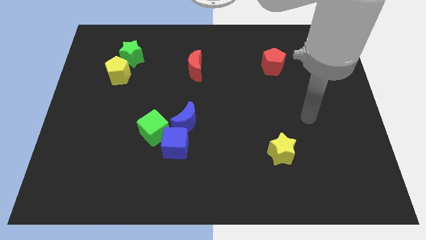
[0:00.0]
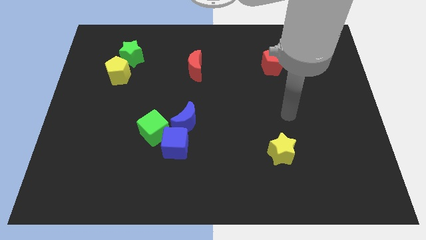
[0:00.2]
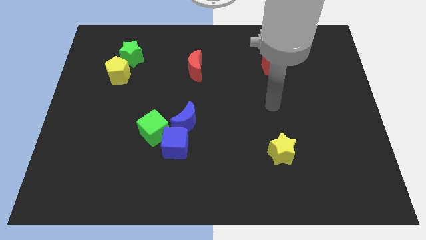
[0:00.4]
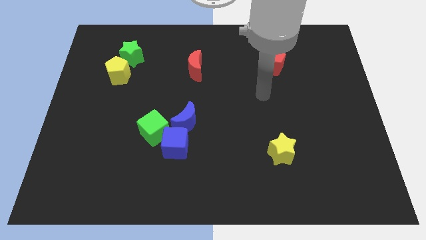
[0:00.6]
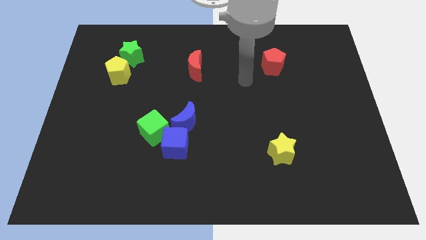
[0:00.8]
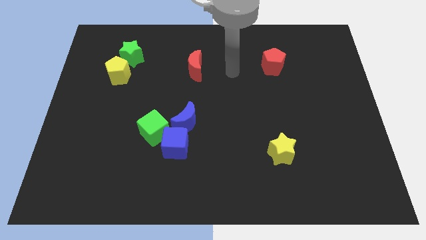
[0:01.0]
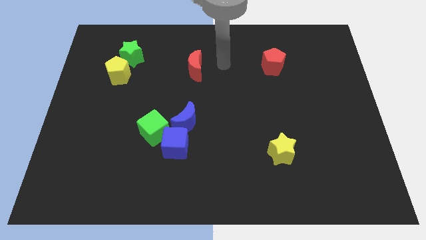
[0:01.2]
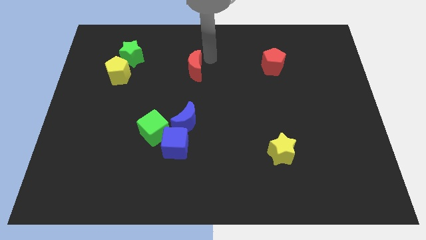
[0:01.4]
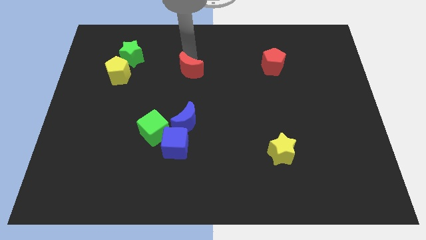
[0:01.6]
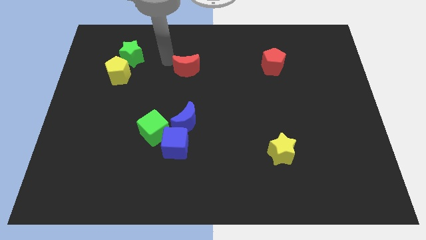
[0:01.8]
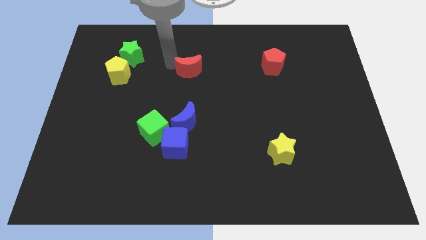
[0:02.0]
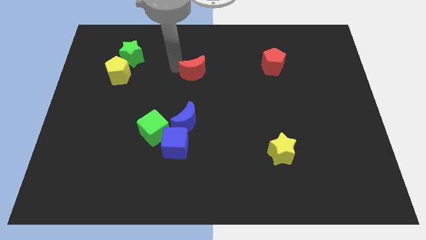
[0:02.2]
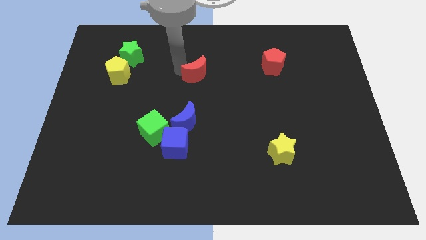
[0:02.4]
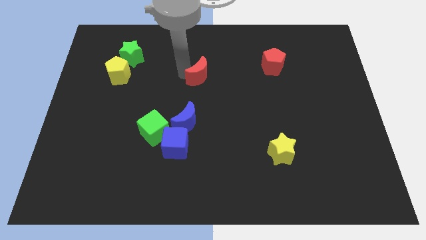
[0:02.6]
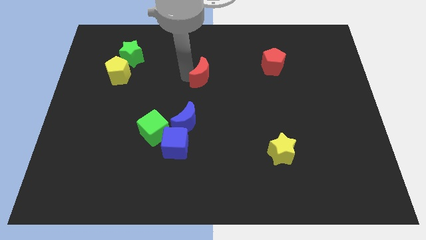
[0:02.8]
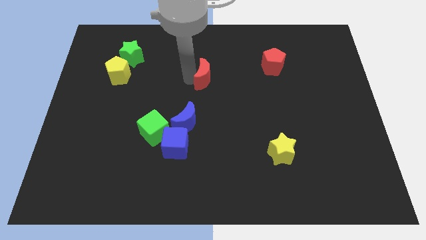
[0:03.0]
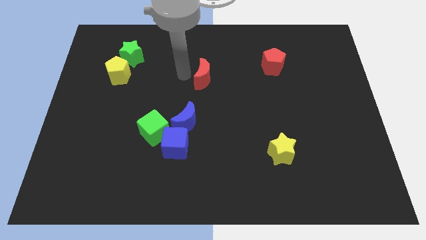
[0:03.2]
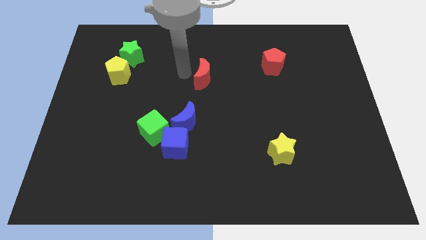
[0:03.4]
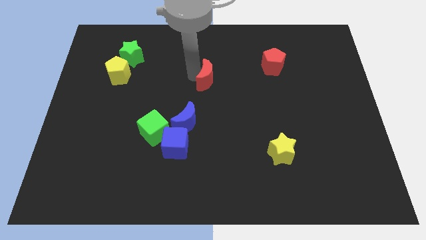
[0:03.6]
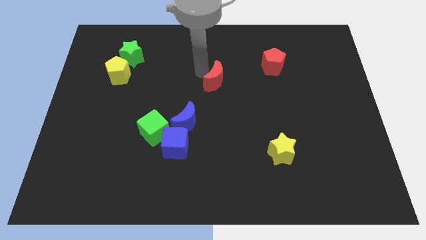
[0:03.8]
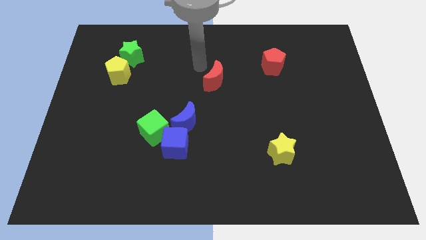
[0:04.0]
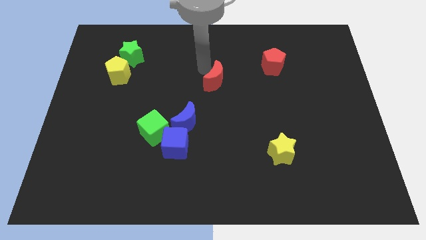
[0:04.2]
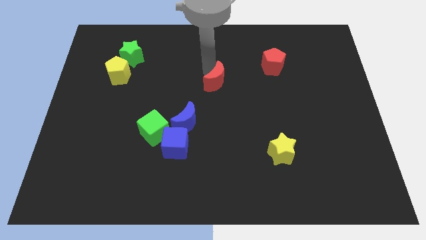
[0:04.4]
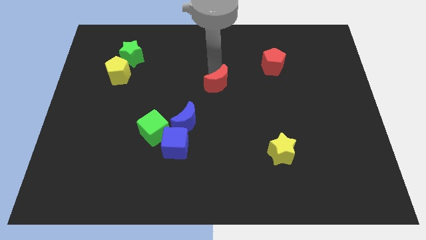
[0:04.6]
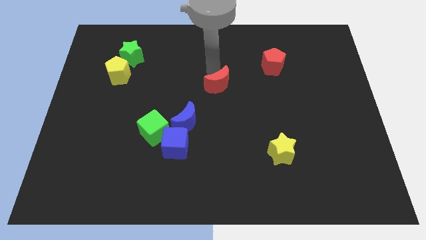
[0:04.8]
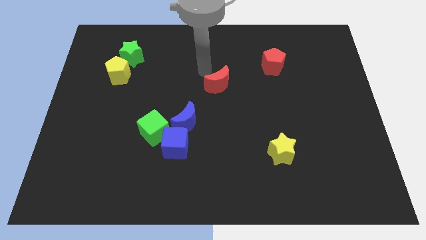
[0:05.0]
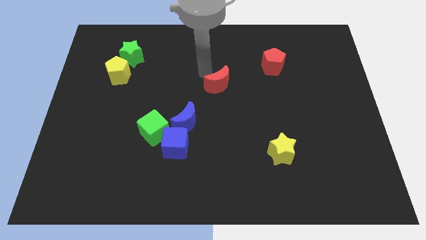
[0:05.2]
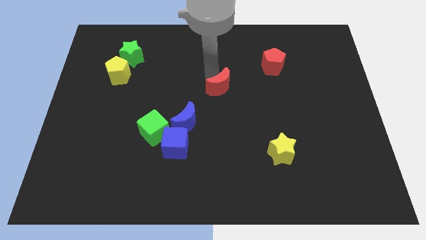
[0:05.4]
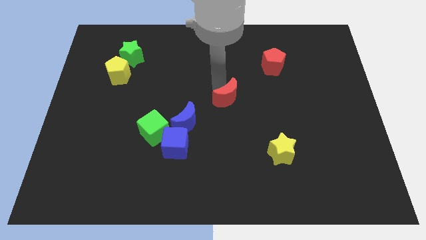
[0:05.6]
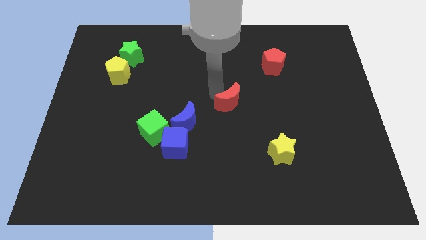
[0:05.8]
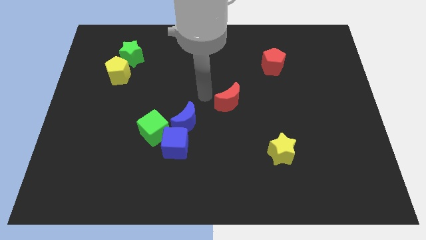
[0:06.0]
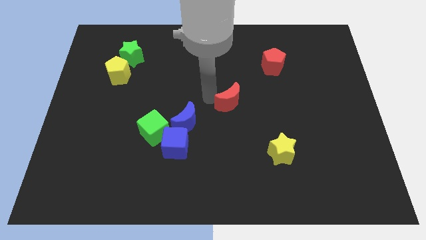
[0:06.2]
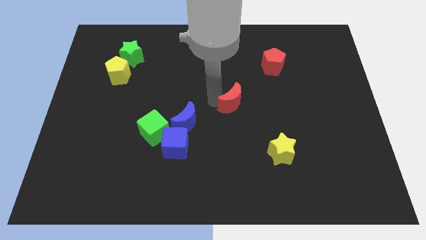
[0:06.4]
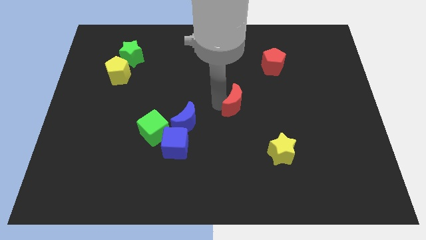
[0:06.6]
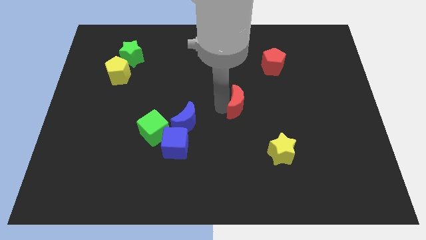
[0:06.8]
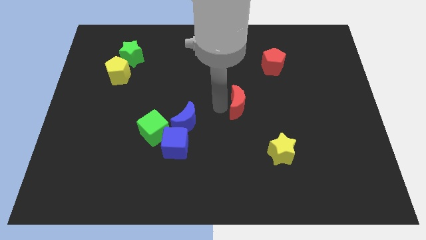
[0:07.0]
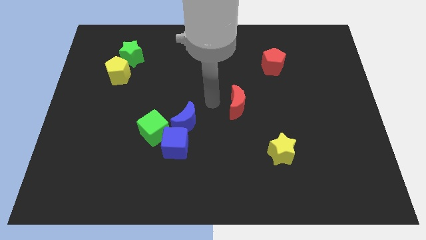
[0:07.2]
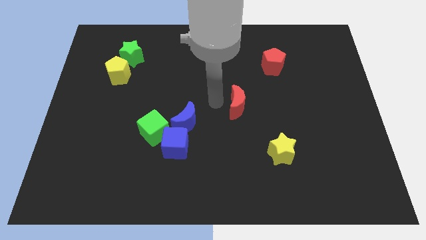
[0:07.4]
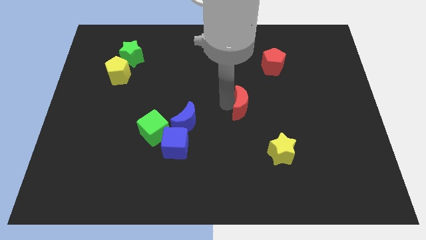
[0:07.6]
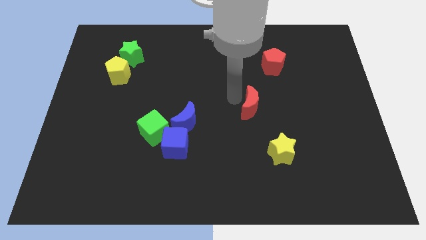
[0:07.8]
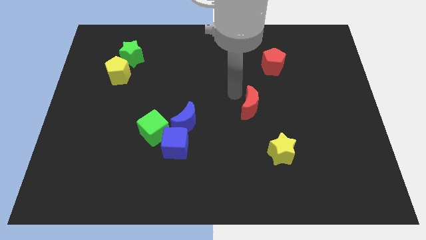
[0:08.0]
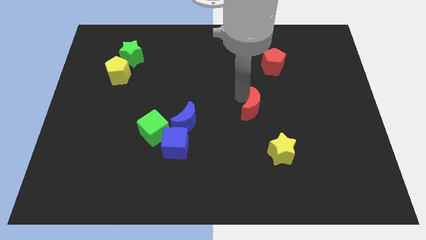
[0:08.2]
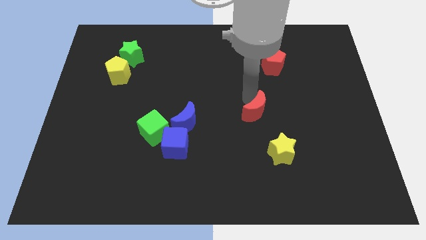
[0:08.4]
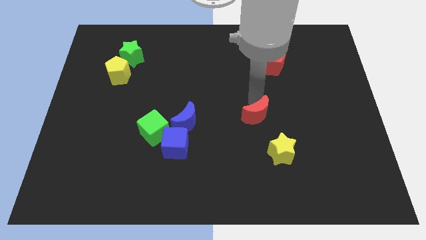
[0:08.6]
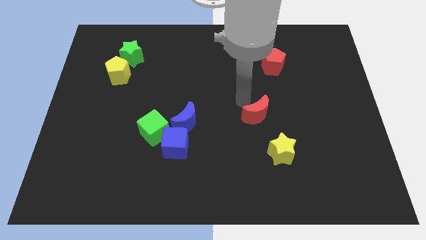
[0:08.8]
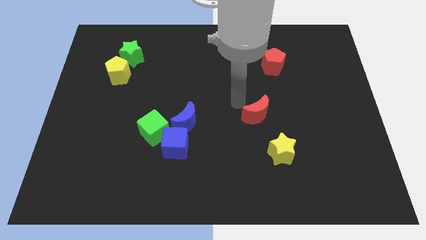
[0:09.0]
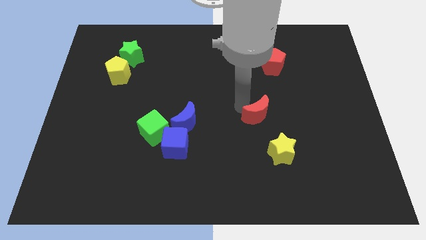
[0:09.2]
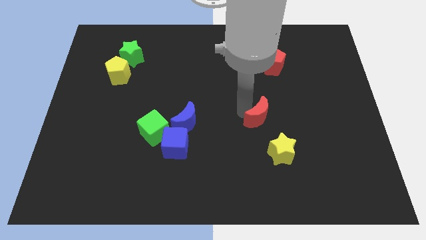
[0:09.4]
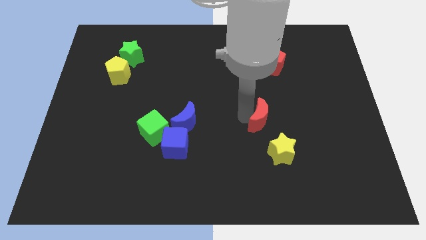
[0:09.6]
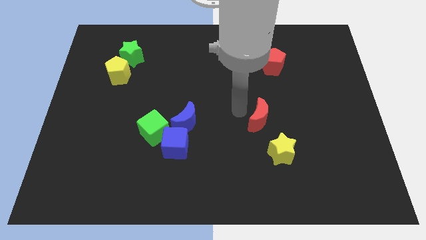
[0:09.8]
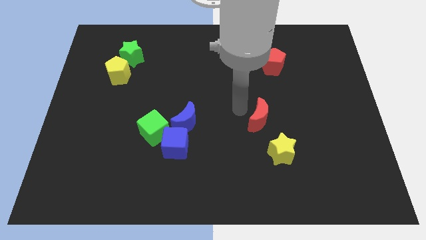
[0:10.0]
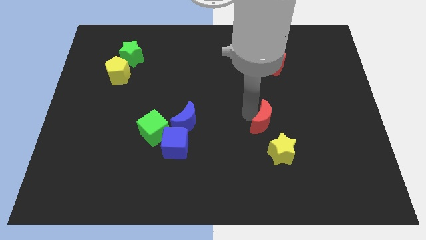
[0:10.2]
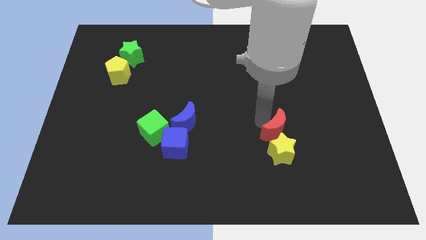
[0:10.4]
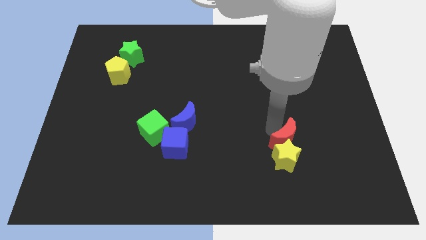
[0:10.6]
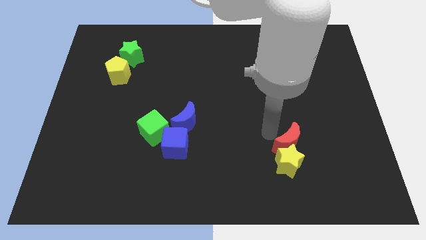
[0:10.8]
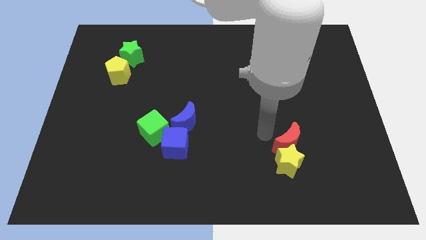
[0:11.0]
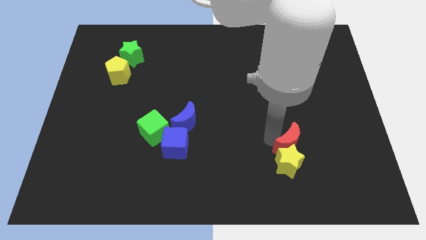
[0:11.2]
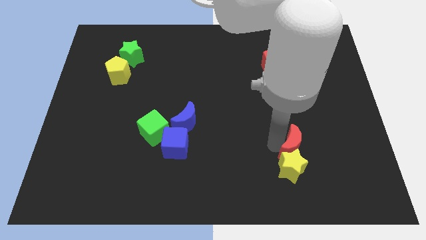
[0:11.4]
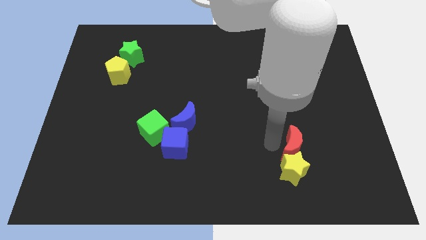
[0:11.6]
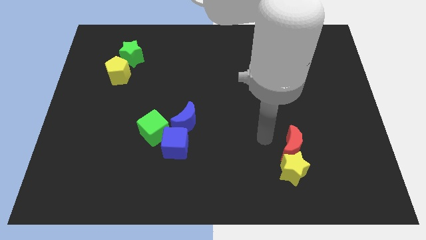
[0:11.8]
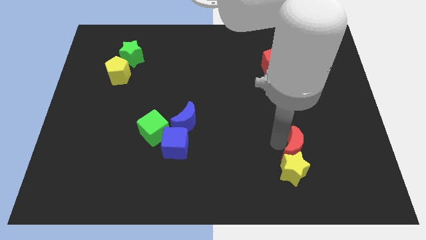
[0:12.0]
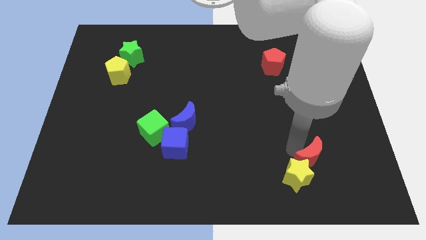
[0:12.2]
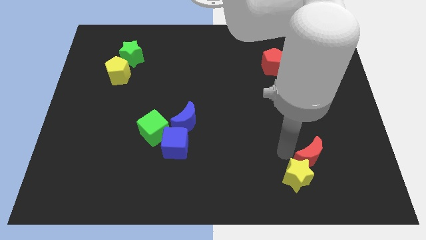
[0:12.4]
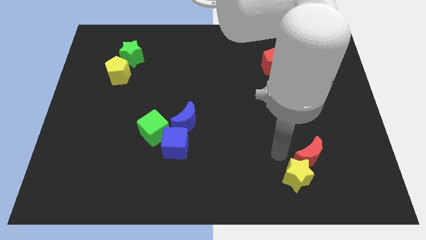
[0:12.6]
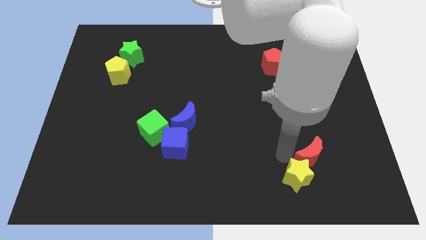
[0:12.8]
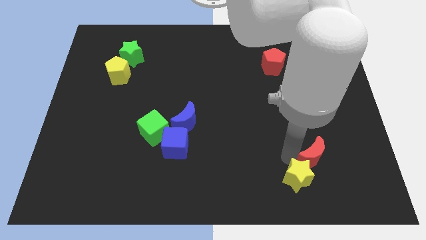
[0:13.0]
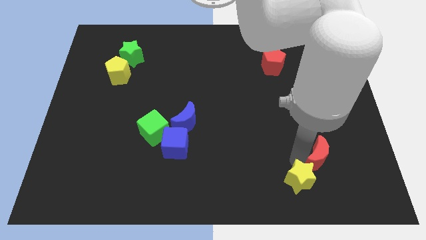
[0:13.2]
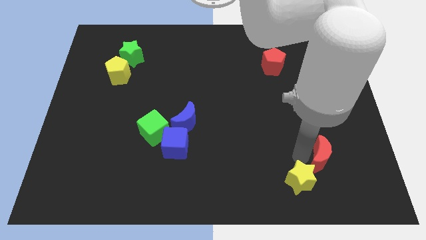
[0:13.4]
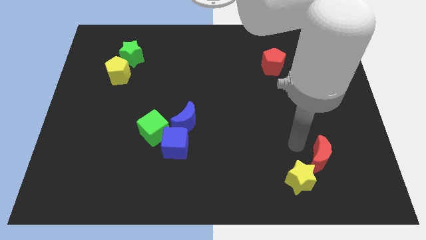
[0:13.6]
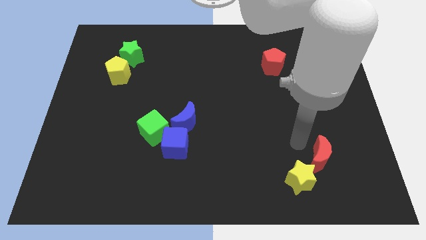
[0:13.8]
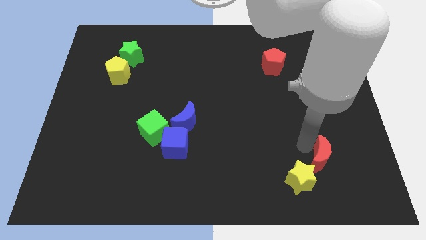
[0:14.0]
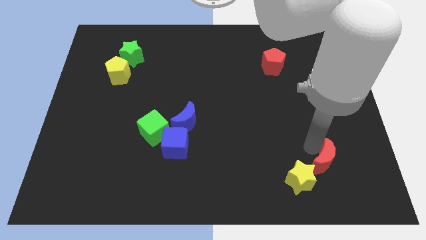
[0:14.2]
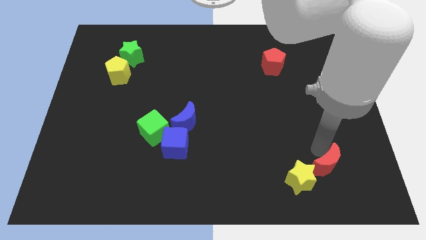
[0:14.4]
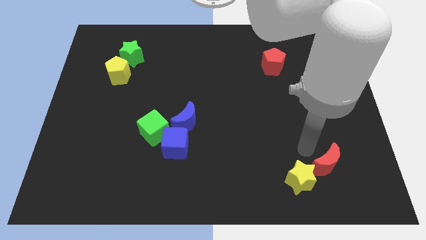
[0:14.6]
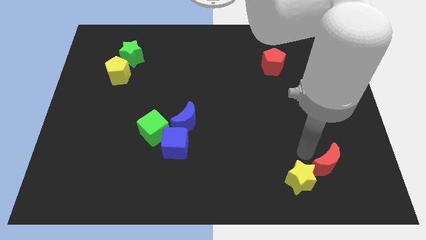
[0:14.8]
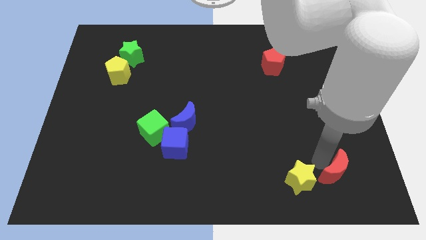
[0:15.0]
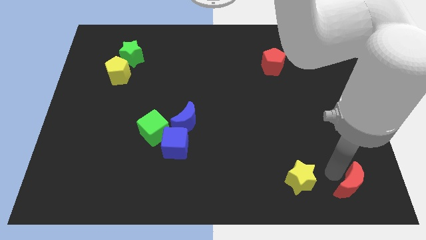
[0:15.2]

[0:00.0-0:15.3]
move the red moon to the lower right corner
